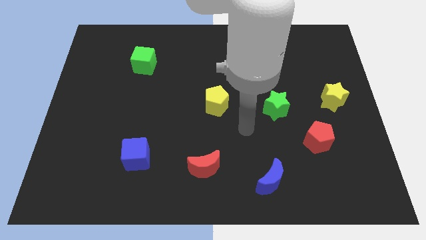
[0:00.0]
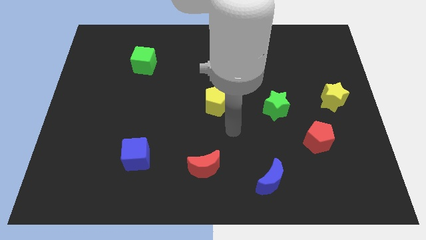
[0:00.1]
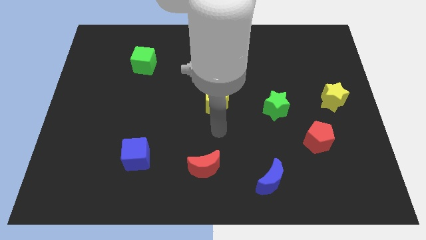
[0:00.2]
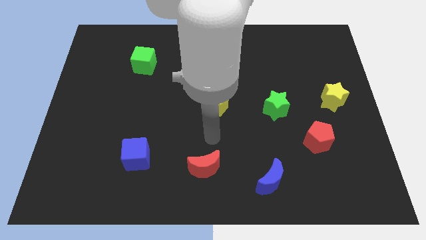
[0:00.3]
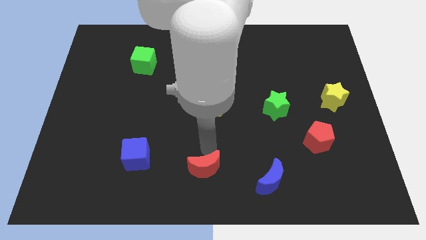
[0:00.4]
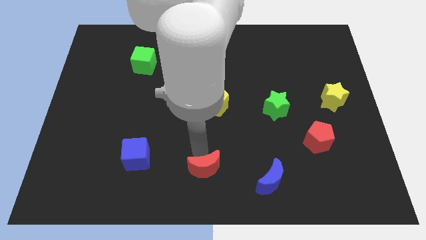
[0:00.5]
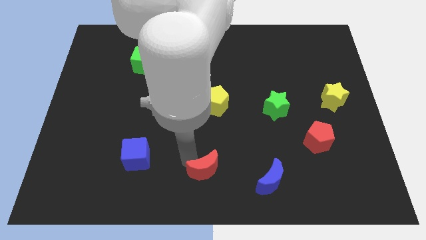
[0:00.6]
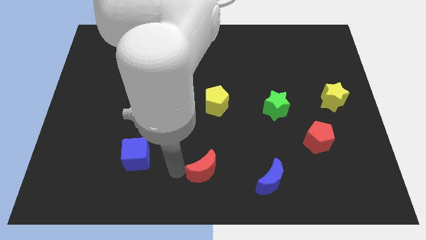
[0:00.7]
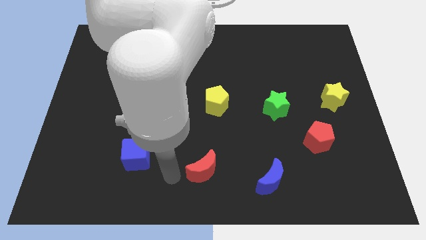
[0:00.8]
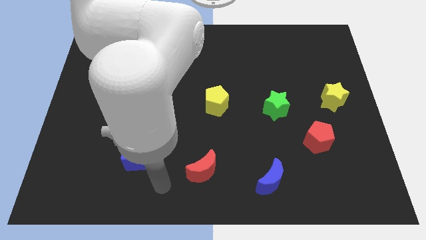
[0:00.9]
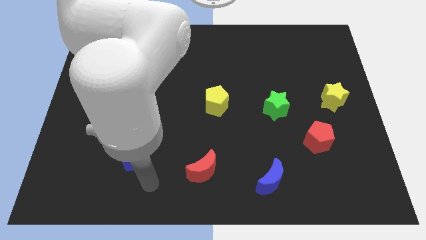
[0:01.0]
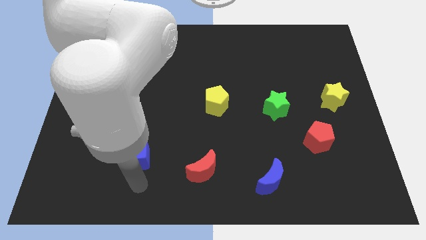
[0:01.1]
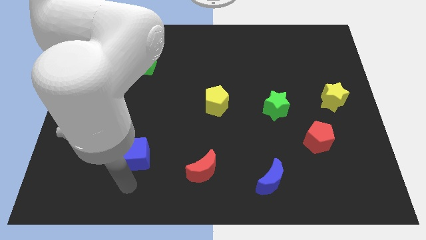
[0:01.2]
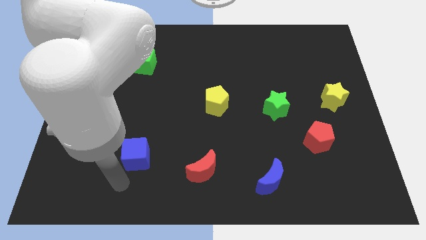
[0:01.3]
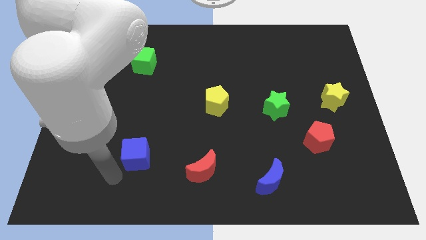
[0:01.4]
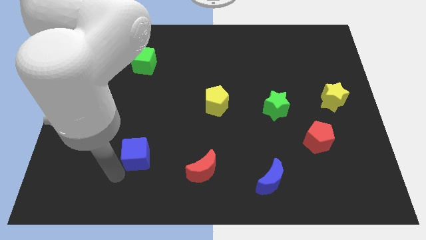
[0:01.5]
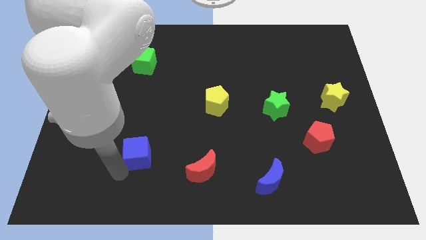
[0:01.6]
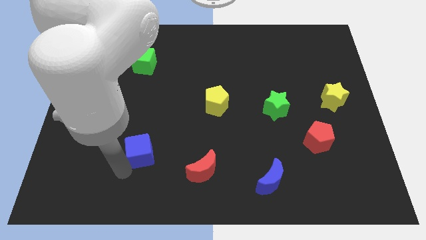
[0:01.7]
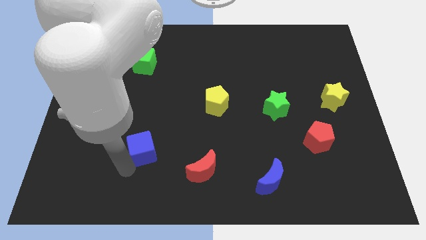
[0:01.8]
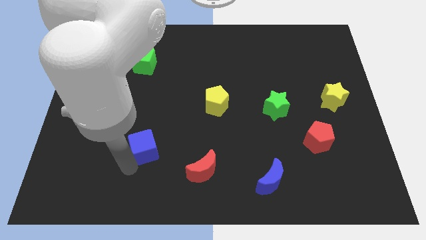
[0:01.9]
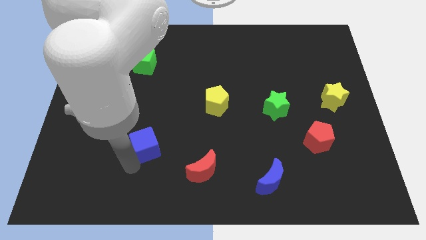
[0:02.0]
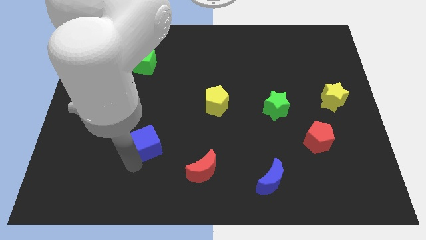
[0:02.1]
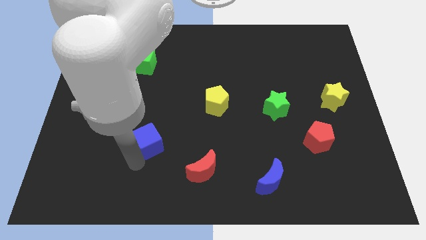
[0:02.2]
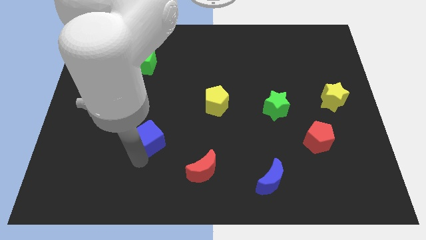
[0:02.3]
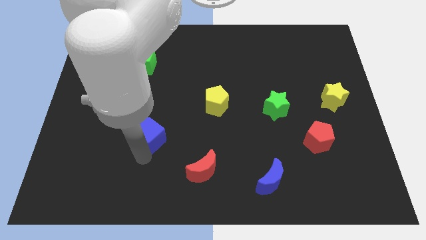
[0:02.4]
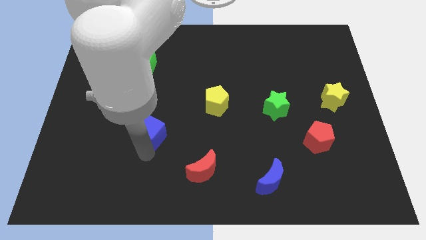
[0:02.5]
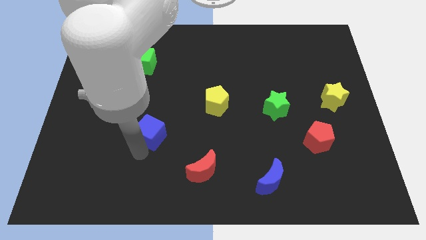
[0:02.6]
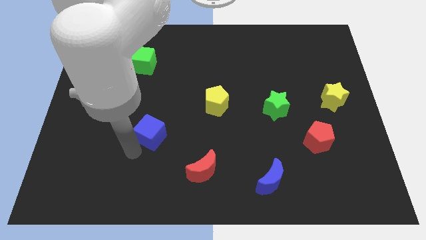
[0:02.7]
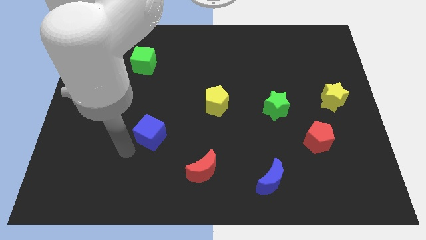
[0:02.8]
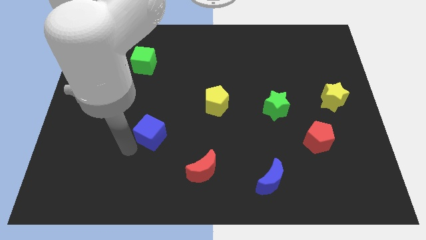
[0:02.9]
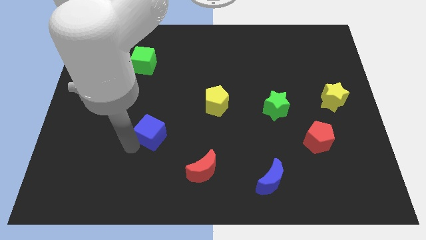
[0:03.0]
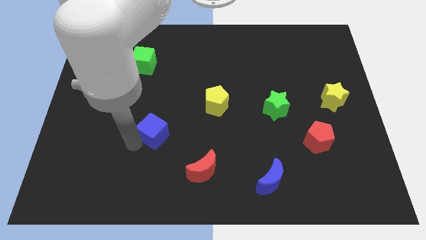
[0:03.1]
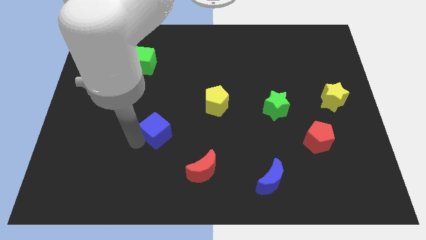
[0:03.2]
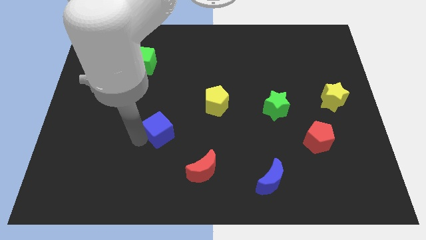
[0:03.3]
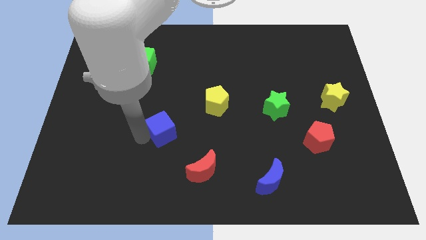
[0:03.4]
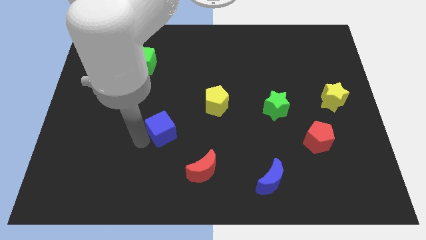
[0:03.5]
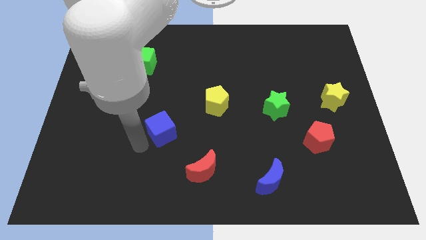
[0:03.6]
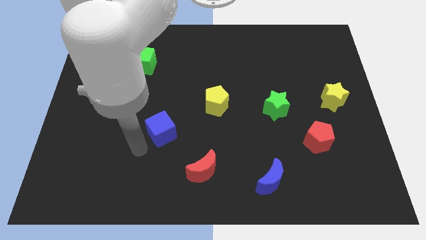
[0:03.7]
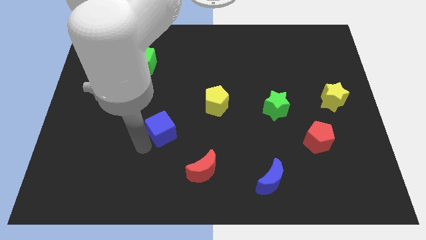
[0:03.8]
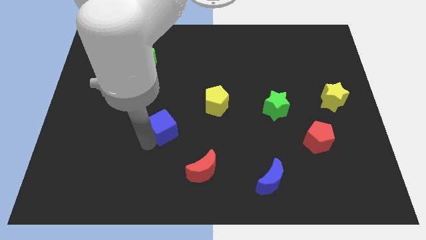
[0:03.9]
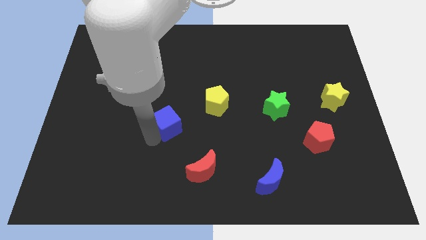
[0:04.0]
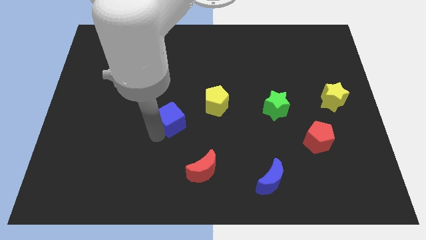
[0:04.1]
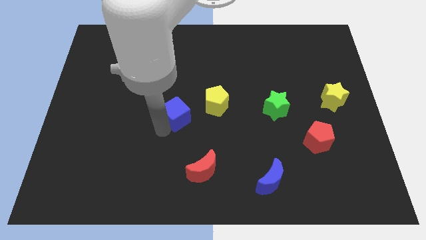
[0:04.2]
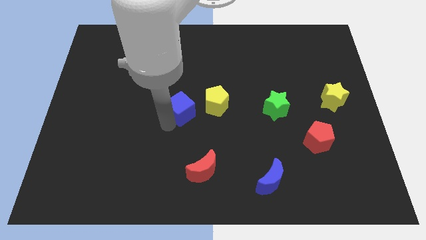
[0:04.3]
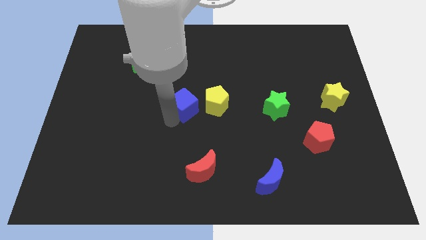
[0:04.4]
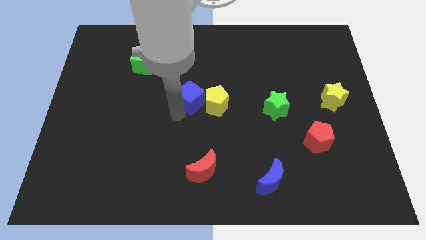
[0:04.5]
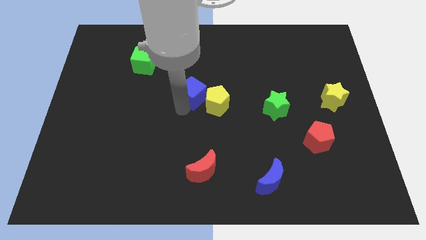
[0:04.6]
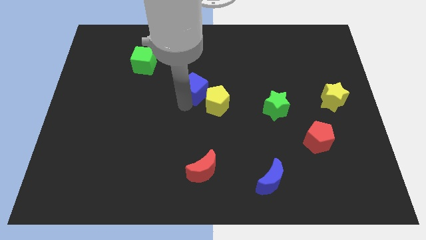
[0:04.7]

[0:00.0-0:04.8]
move the blue cube upwards and to the right diagonally

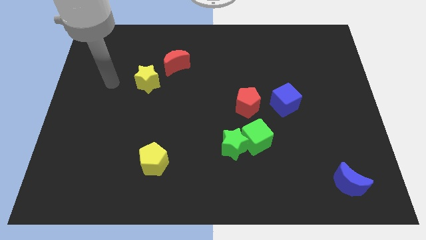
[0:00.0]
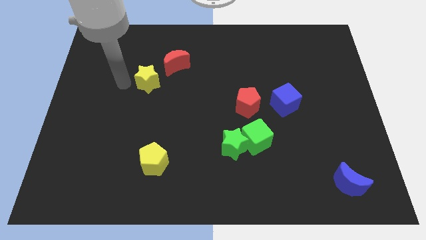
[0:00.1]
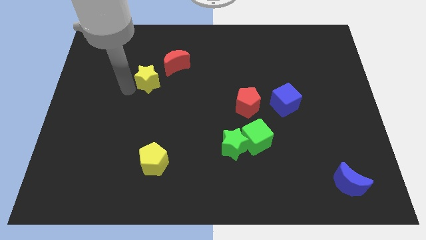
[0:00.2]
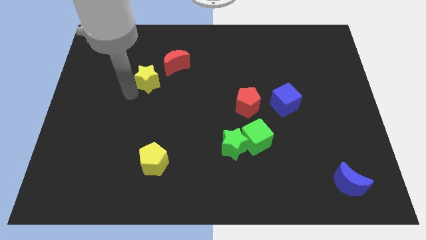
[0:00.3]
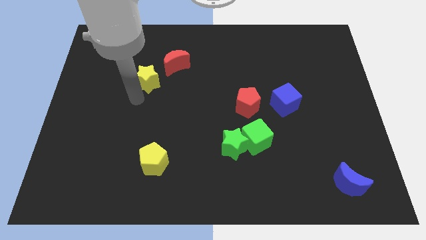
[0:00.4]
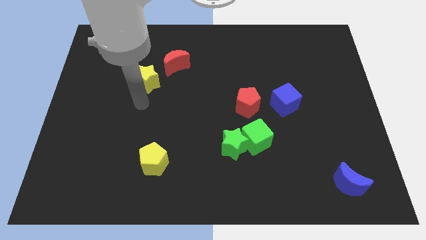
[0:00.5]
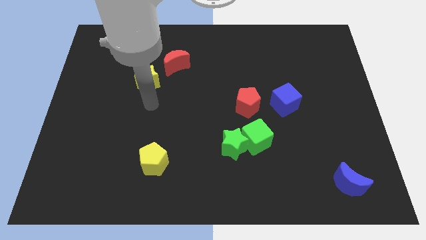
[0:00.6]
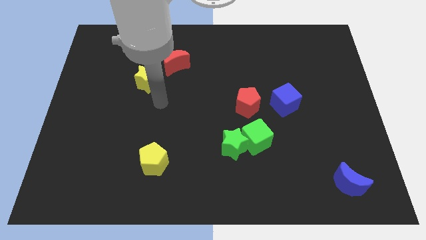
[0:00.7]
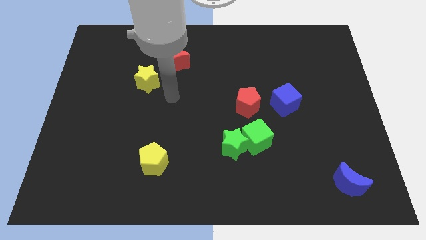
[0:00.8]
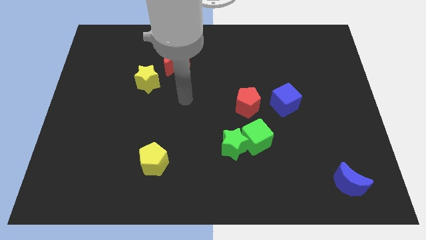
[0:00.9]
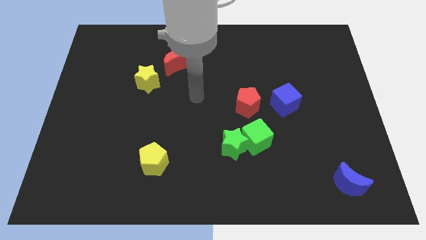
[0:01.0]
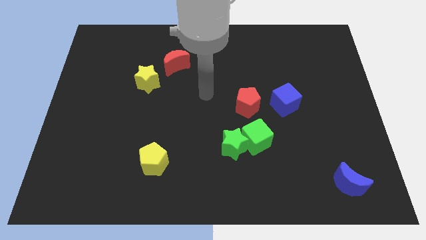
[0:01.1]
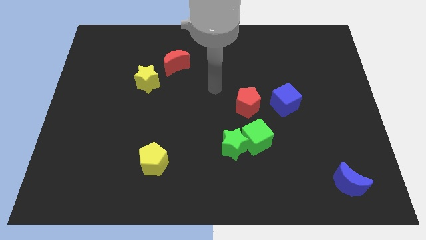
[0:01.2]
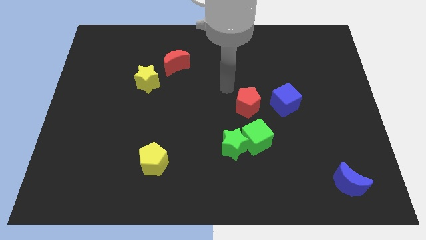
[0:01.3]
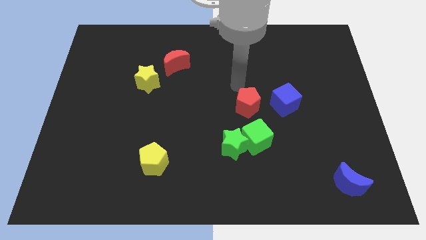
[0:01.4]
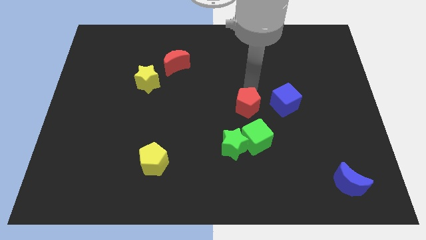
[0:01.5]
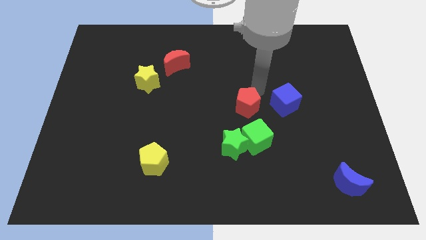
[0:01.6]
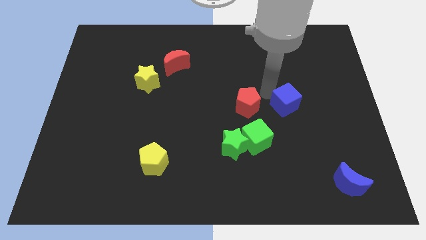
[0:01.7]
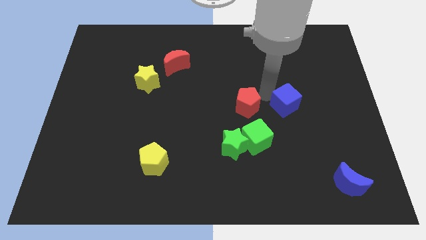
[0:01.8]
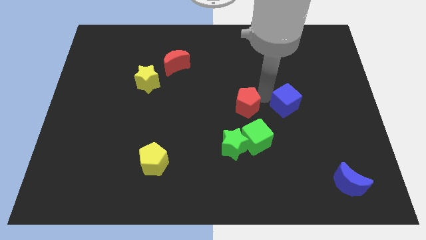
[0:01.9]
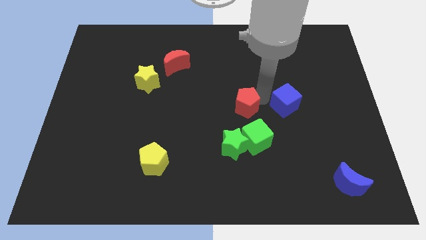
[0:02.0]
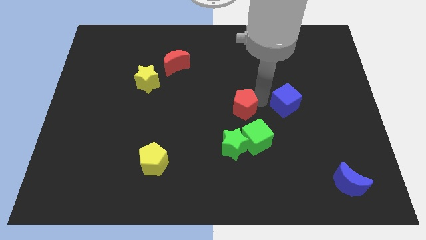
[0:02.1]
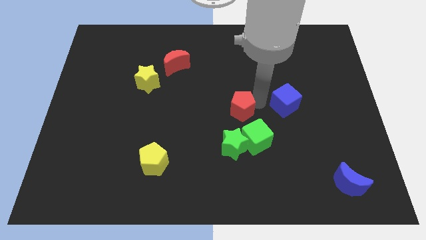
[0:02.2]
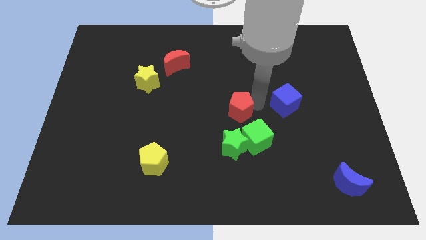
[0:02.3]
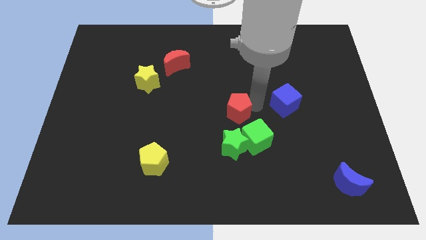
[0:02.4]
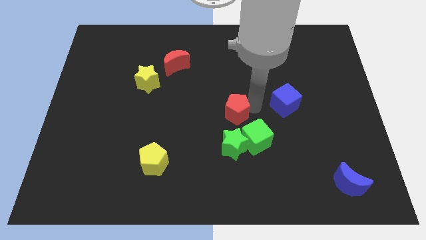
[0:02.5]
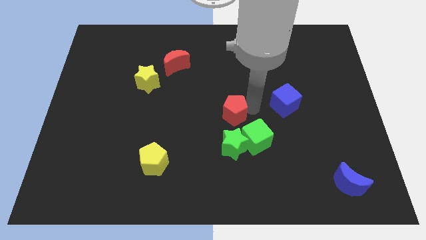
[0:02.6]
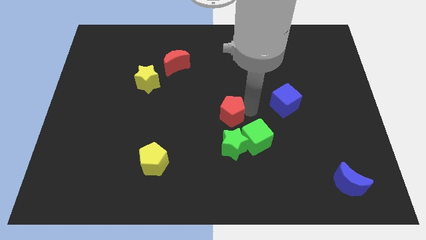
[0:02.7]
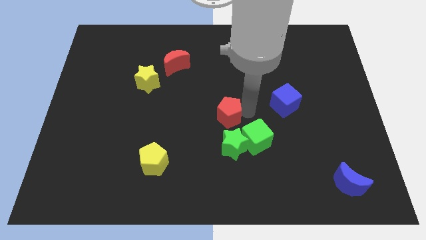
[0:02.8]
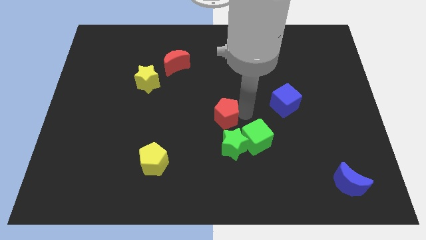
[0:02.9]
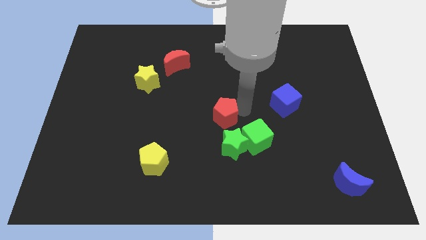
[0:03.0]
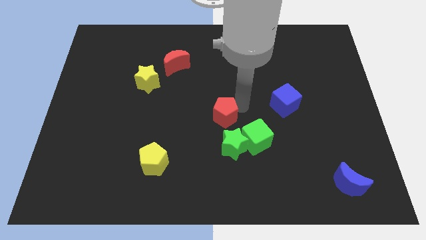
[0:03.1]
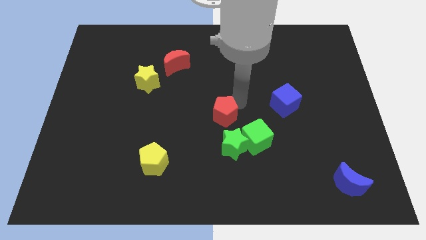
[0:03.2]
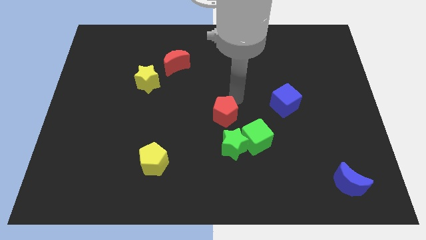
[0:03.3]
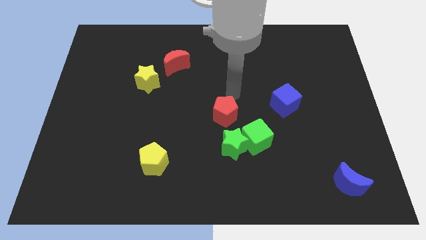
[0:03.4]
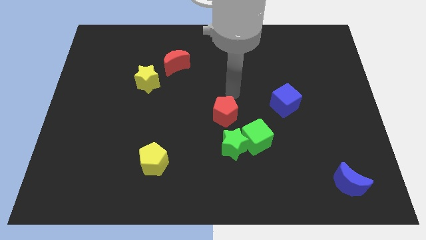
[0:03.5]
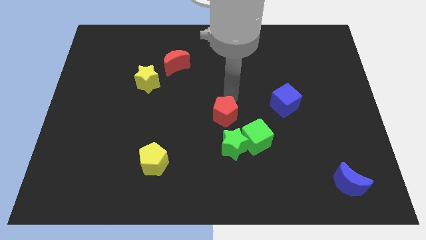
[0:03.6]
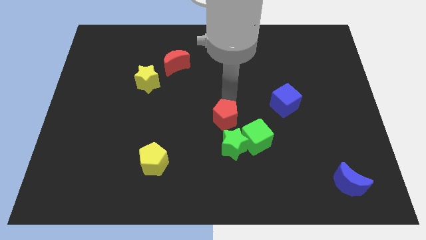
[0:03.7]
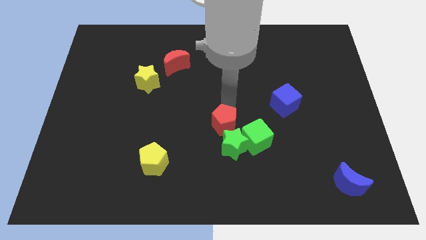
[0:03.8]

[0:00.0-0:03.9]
push the red pentagon down and to the left diagonally a little bit
